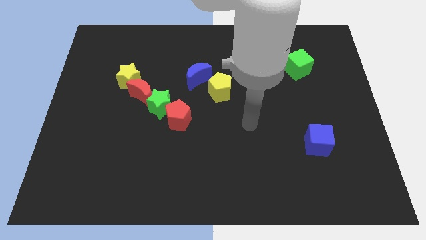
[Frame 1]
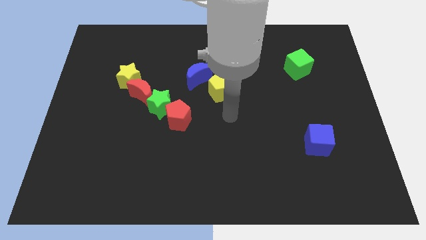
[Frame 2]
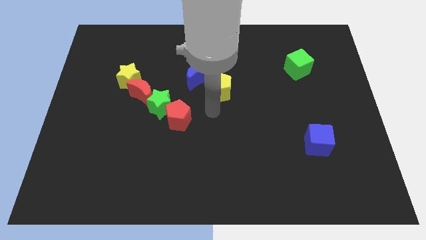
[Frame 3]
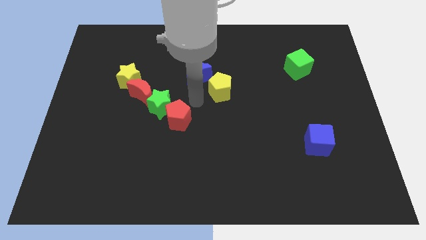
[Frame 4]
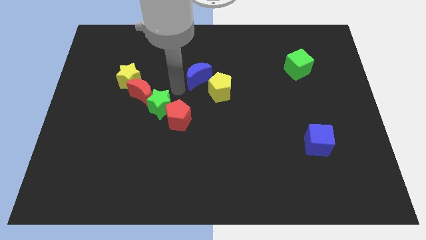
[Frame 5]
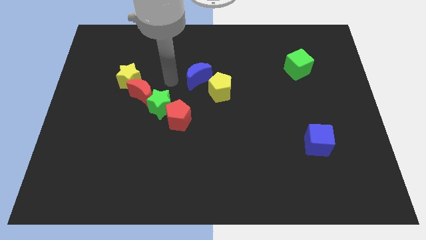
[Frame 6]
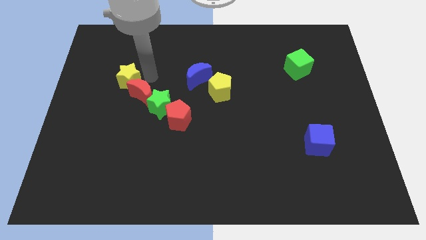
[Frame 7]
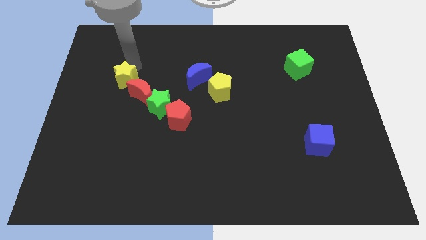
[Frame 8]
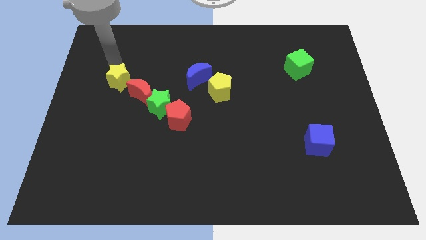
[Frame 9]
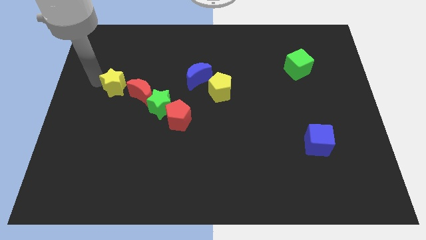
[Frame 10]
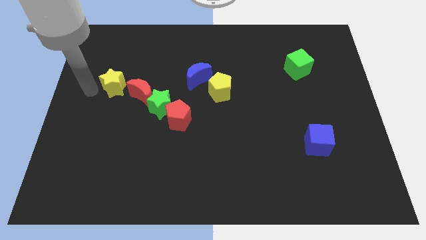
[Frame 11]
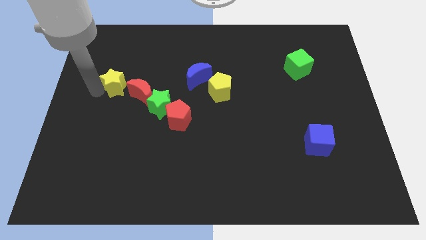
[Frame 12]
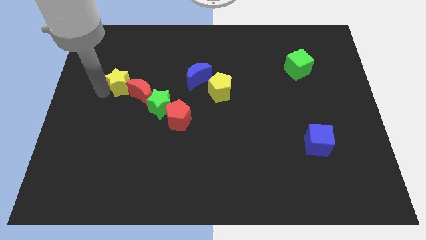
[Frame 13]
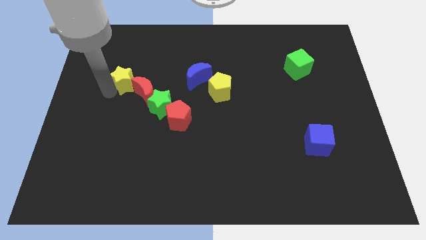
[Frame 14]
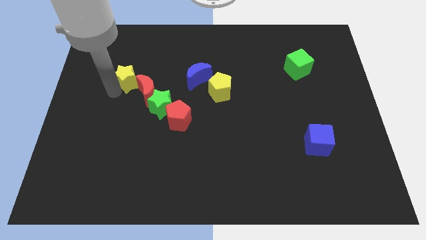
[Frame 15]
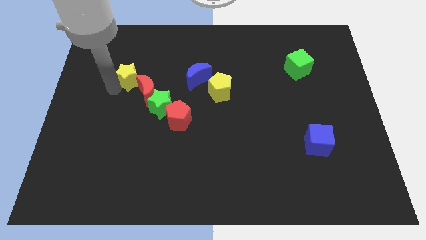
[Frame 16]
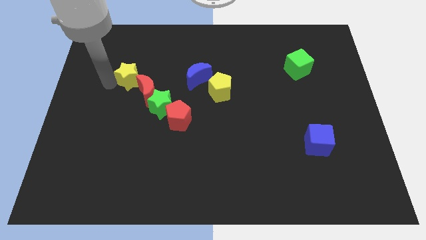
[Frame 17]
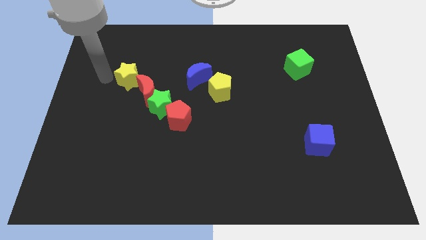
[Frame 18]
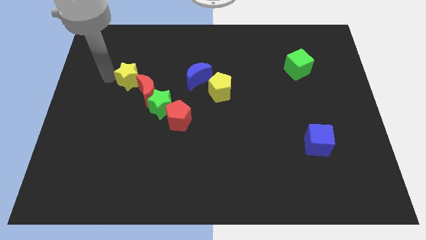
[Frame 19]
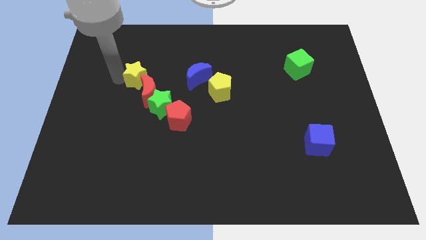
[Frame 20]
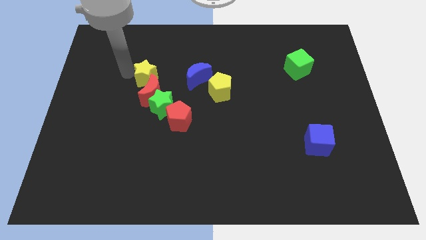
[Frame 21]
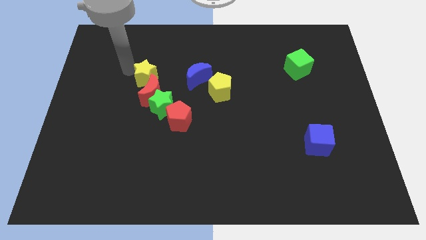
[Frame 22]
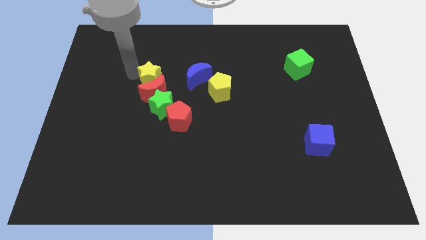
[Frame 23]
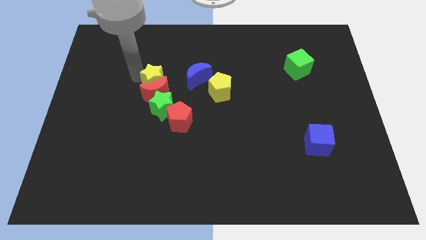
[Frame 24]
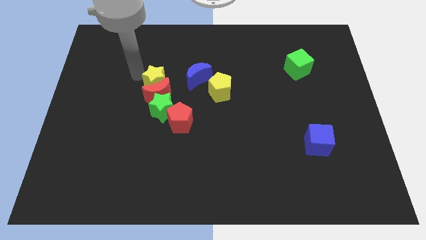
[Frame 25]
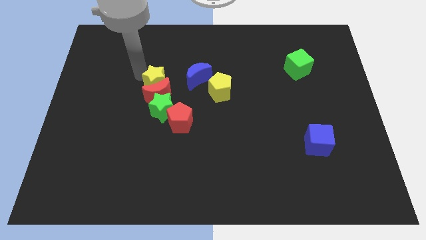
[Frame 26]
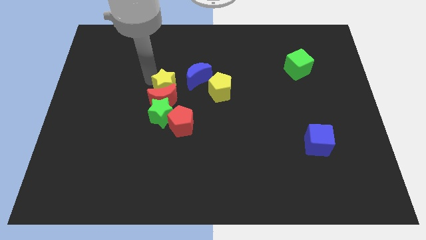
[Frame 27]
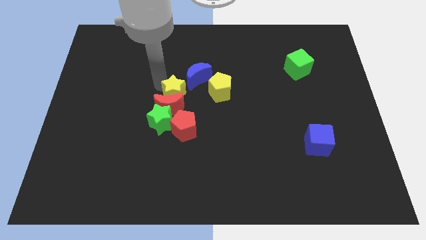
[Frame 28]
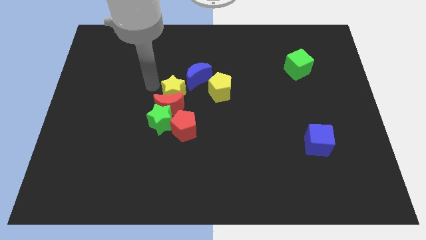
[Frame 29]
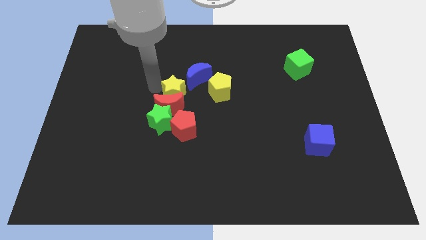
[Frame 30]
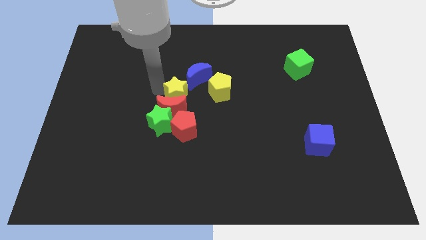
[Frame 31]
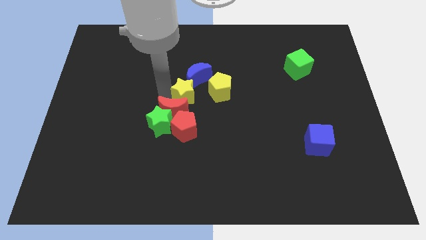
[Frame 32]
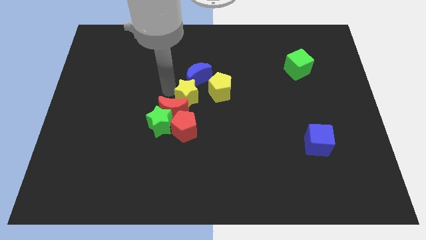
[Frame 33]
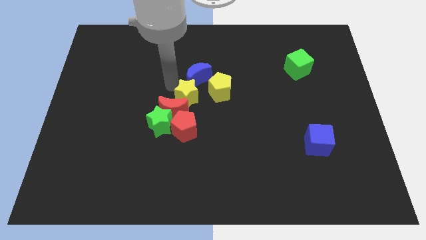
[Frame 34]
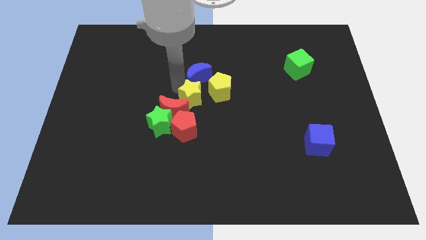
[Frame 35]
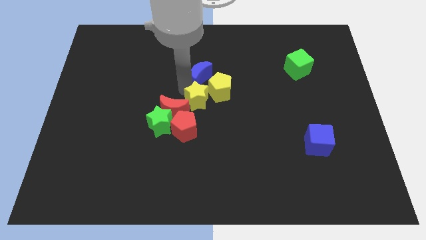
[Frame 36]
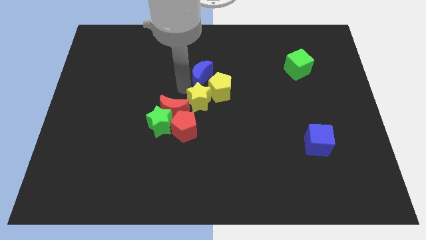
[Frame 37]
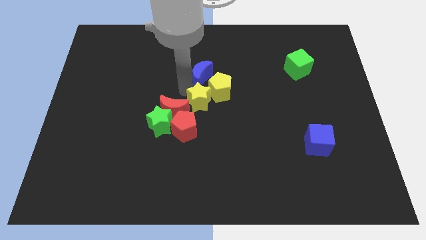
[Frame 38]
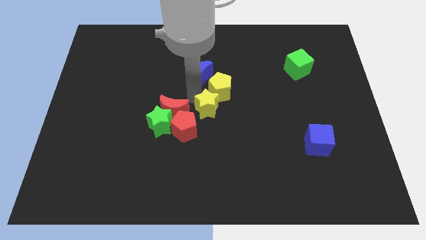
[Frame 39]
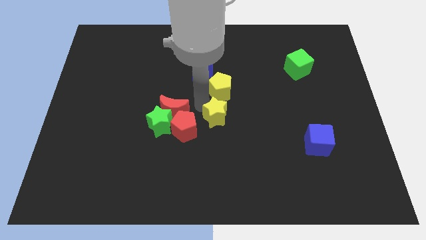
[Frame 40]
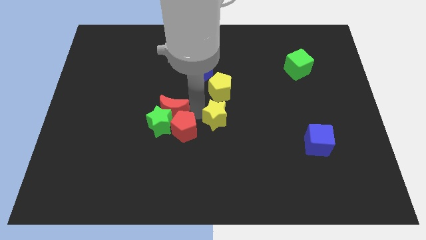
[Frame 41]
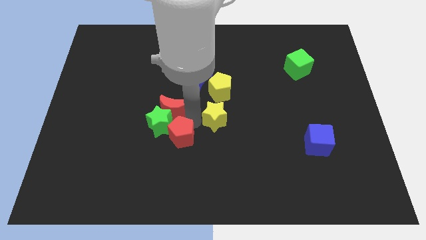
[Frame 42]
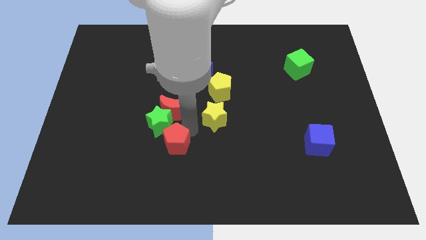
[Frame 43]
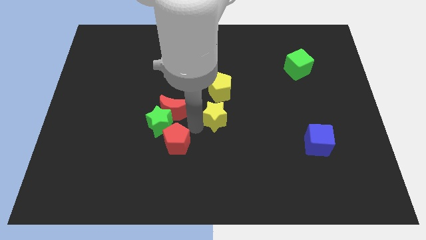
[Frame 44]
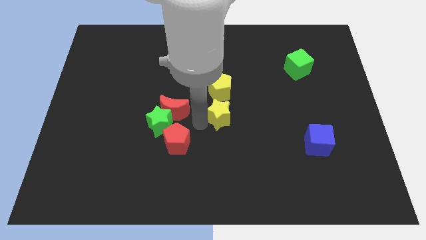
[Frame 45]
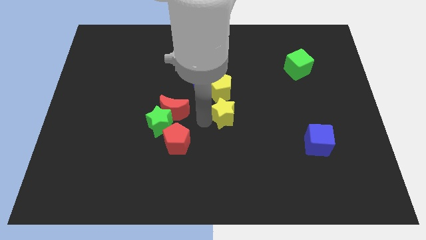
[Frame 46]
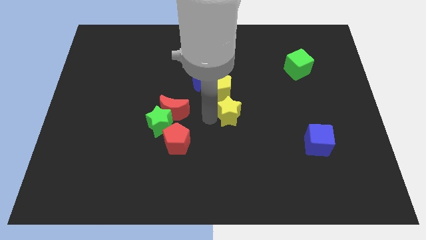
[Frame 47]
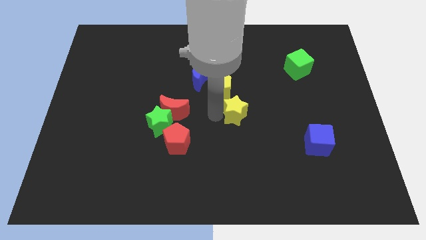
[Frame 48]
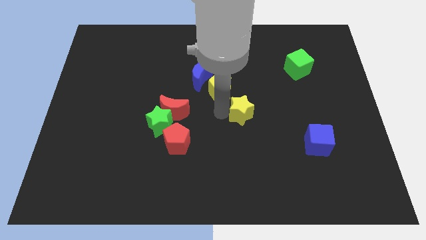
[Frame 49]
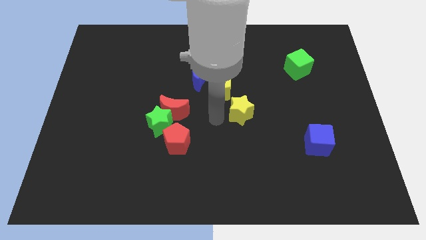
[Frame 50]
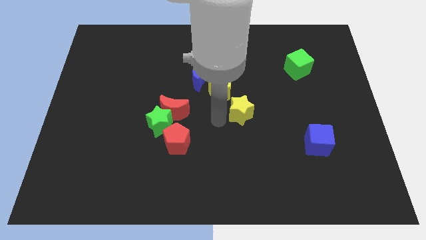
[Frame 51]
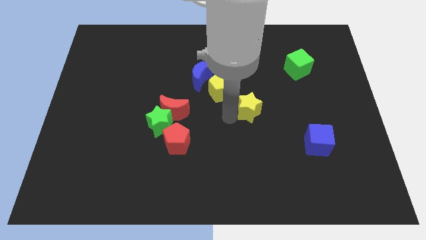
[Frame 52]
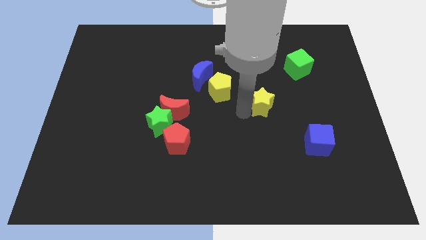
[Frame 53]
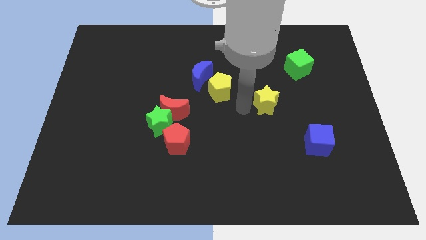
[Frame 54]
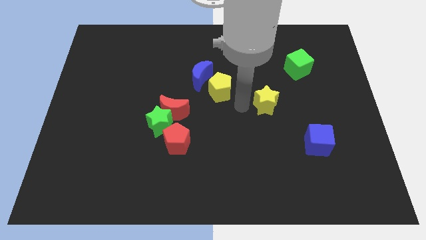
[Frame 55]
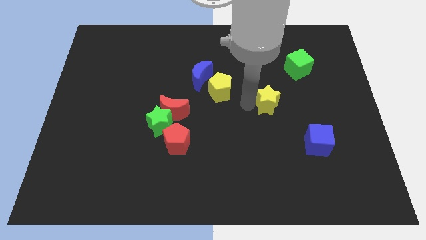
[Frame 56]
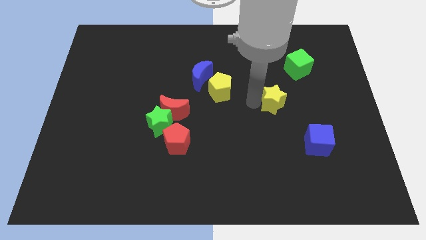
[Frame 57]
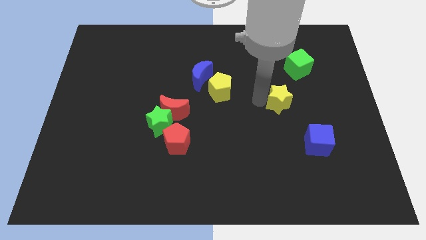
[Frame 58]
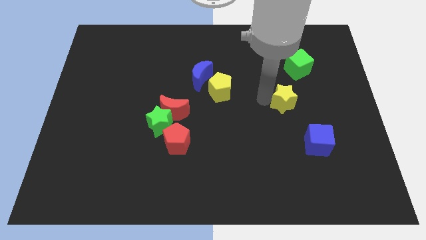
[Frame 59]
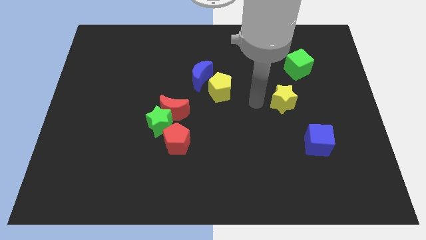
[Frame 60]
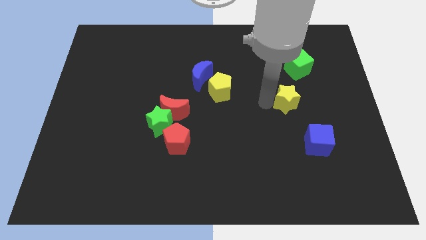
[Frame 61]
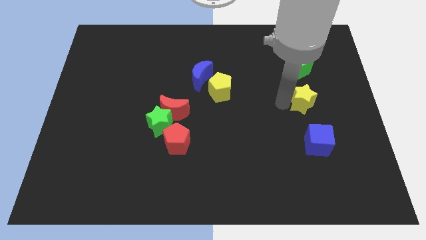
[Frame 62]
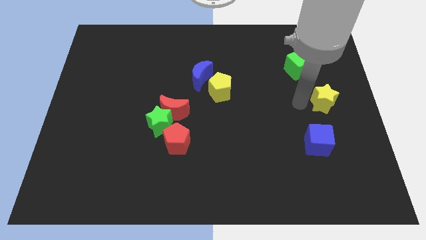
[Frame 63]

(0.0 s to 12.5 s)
put the yellow star to the right side

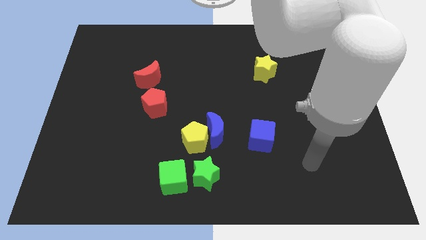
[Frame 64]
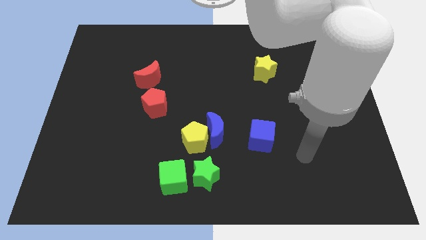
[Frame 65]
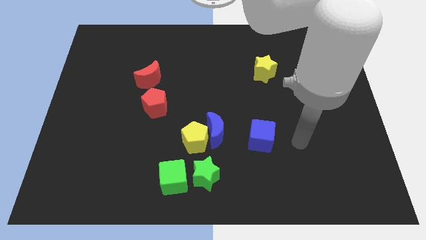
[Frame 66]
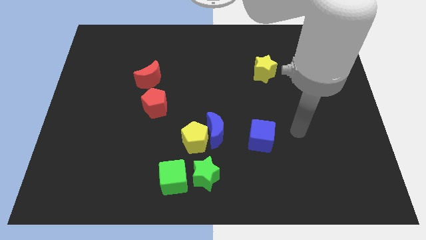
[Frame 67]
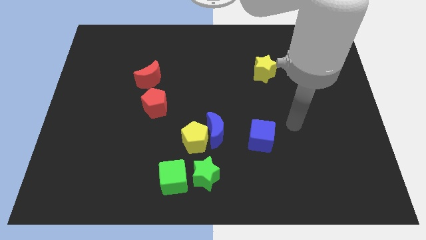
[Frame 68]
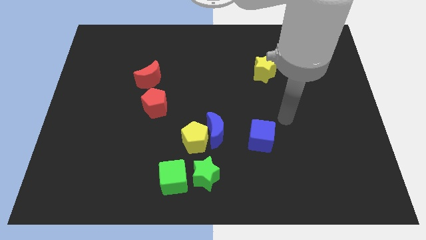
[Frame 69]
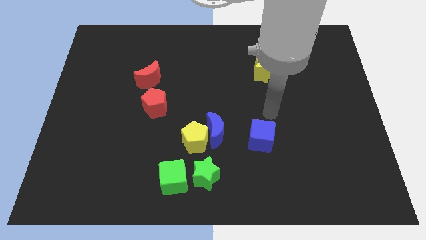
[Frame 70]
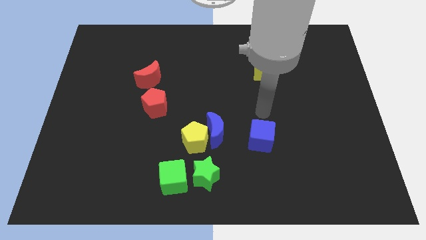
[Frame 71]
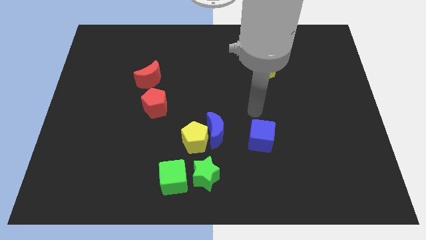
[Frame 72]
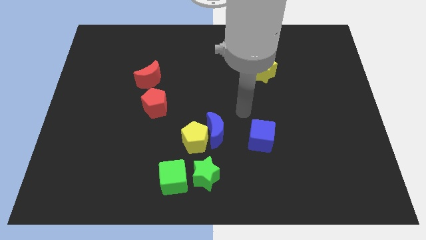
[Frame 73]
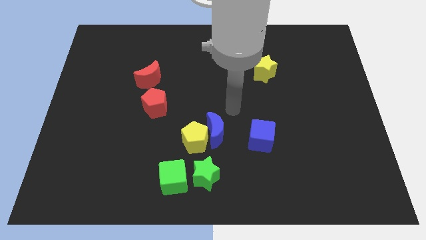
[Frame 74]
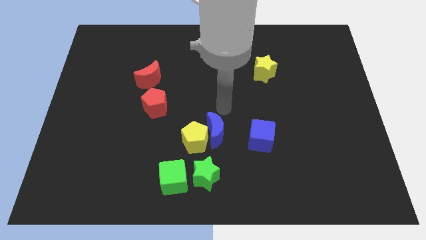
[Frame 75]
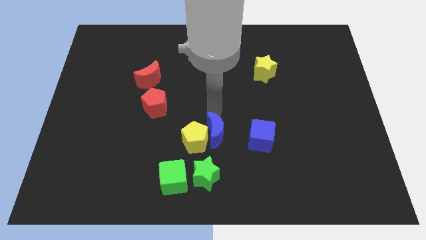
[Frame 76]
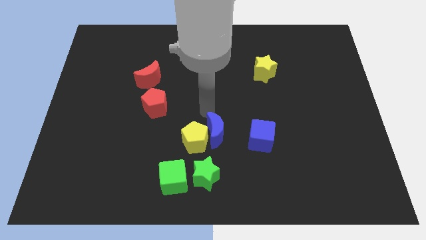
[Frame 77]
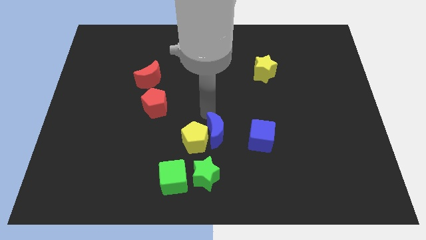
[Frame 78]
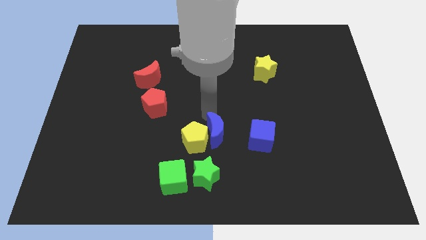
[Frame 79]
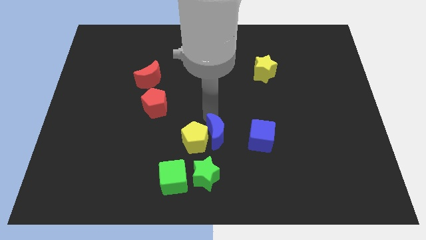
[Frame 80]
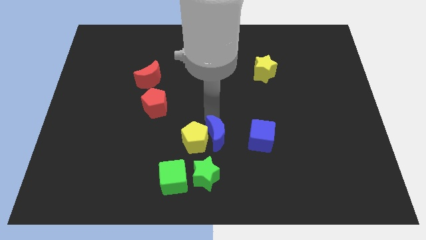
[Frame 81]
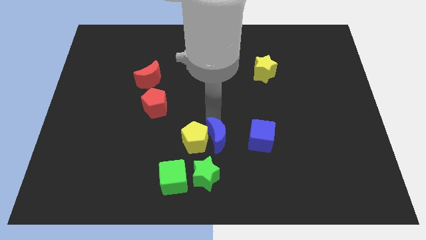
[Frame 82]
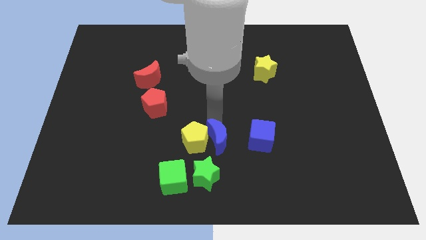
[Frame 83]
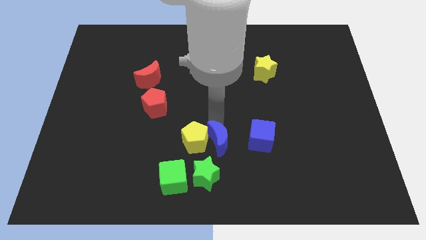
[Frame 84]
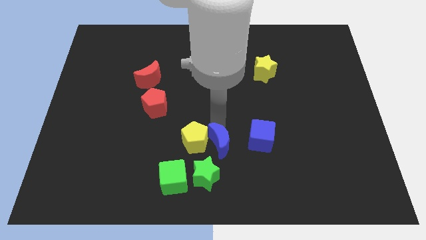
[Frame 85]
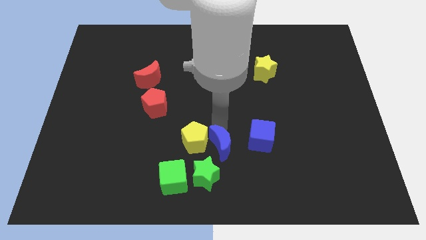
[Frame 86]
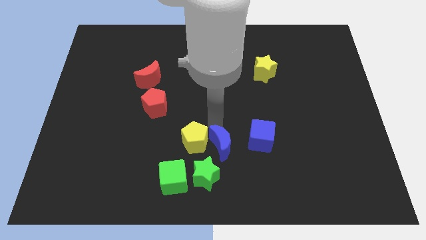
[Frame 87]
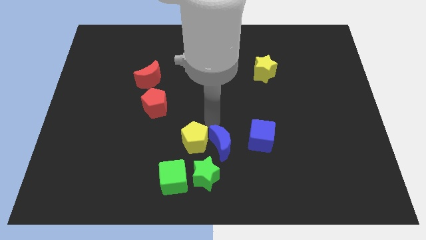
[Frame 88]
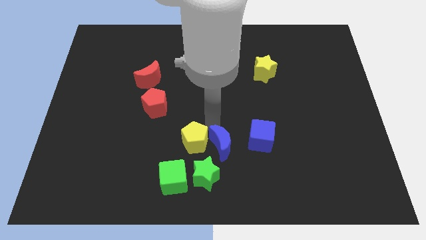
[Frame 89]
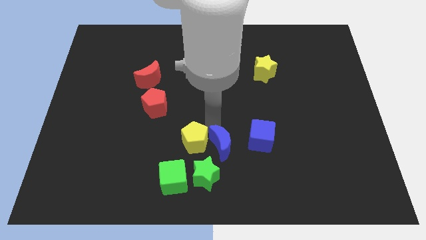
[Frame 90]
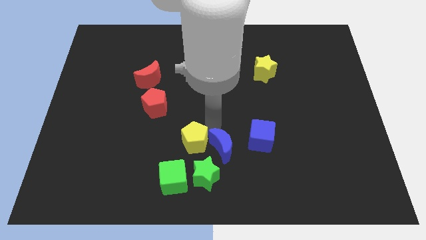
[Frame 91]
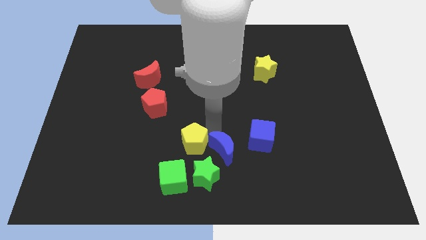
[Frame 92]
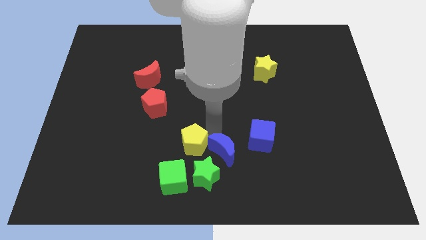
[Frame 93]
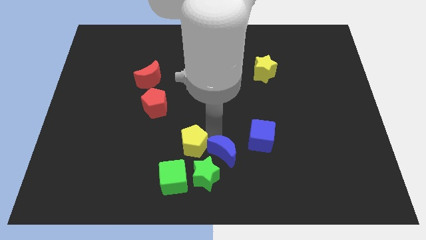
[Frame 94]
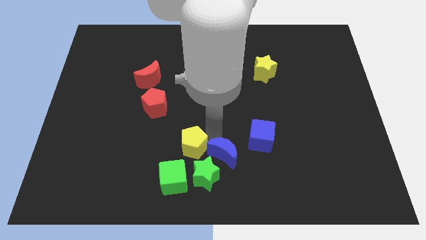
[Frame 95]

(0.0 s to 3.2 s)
put the blue moon to the bottom side
